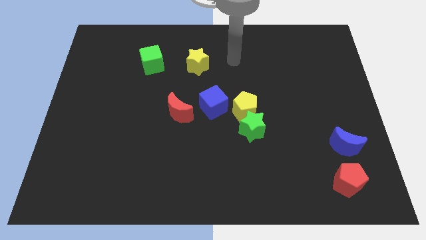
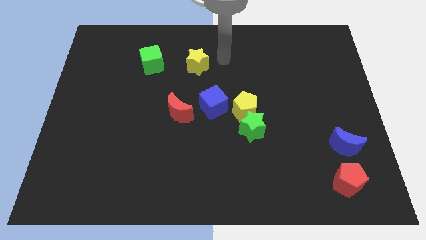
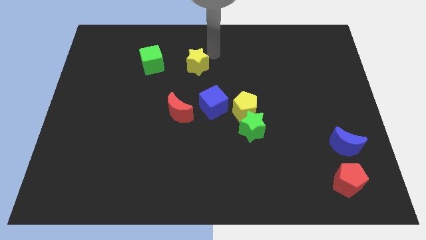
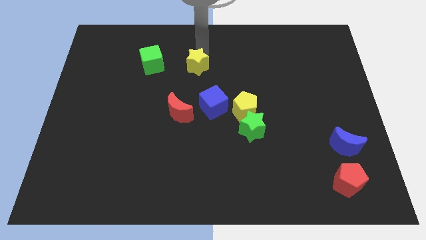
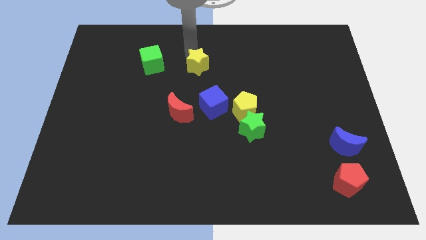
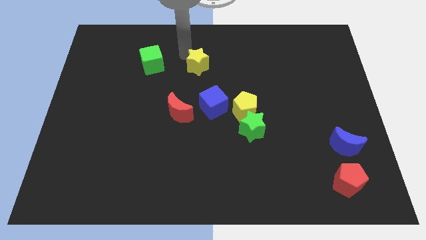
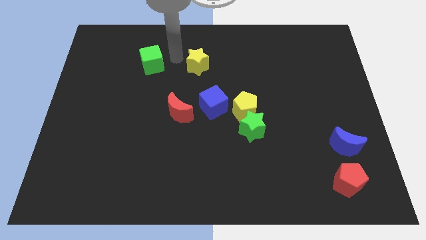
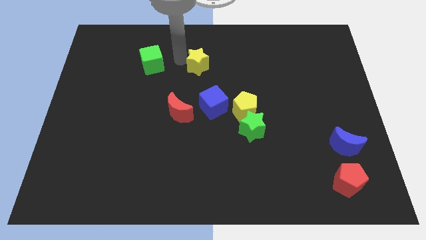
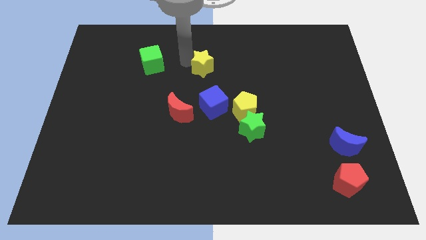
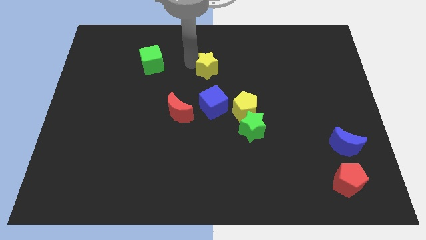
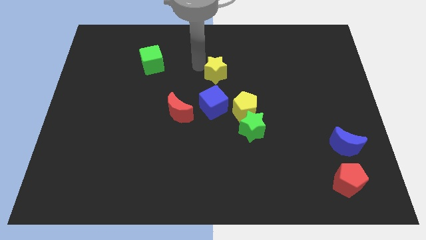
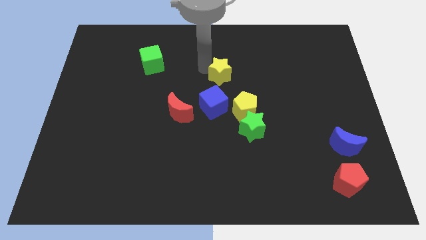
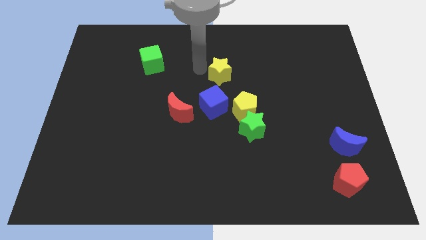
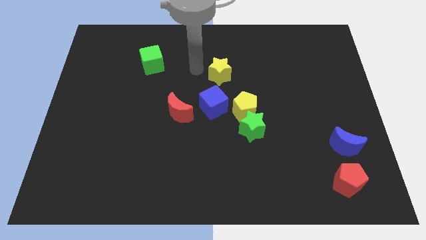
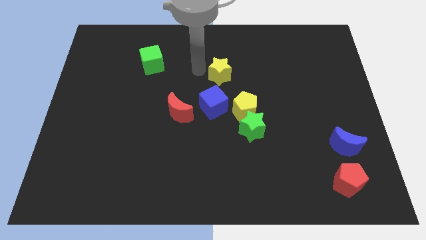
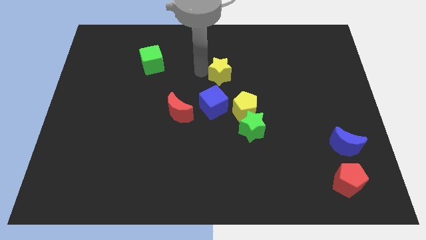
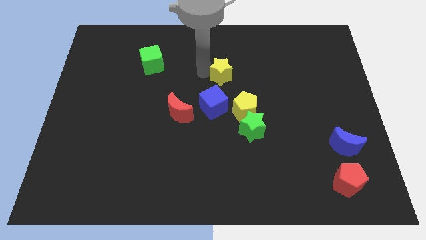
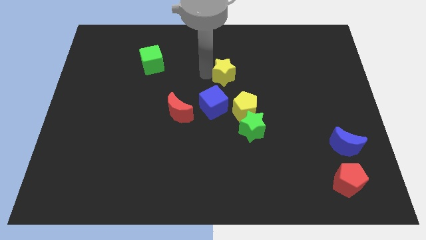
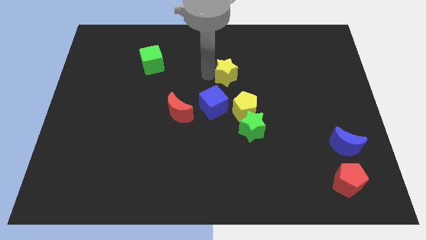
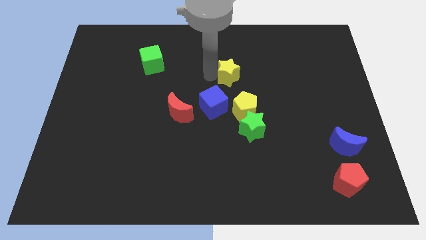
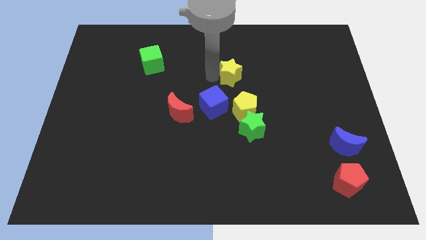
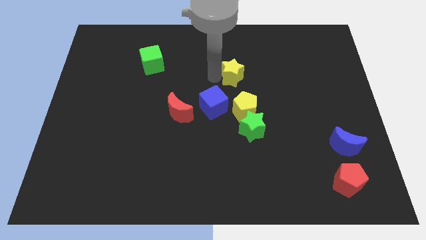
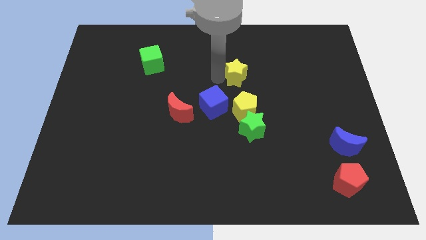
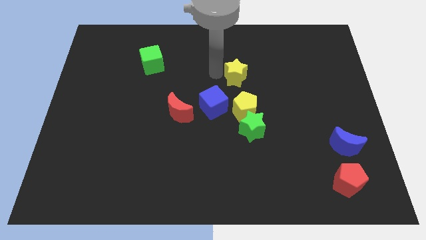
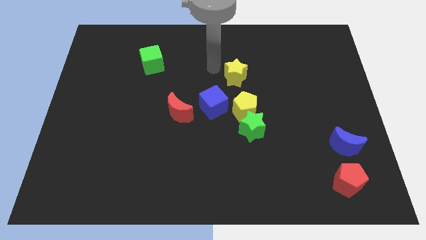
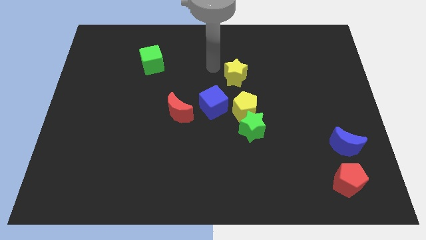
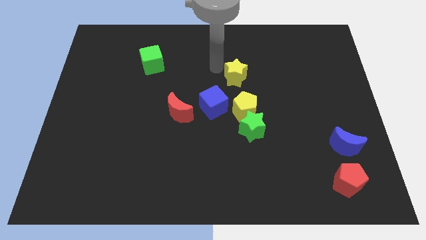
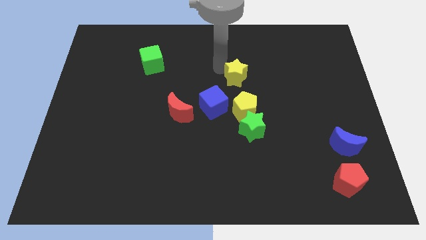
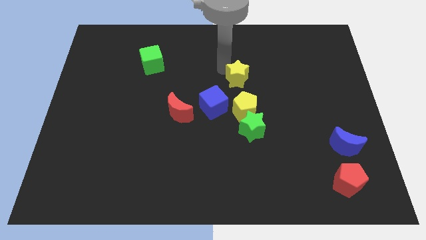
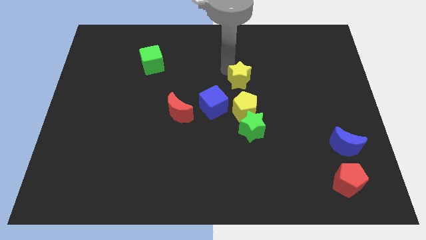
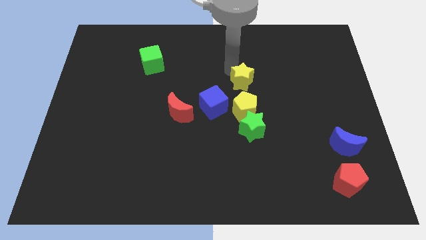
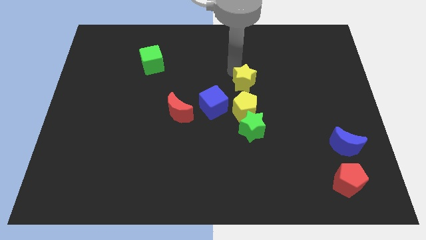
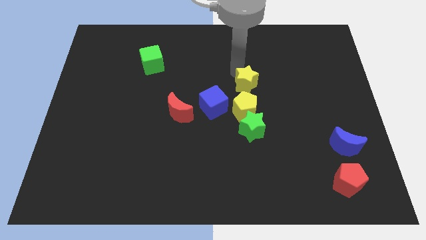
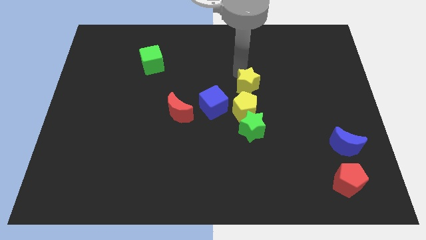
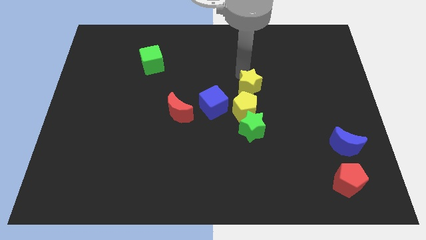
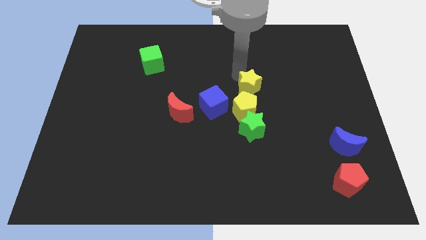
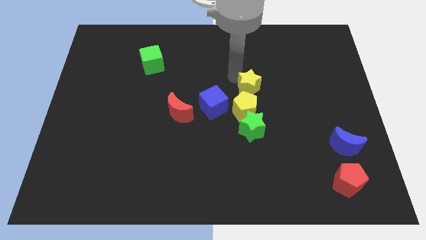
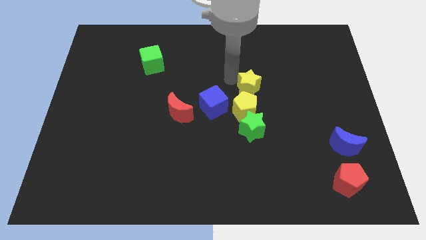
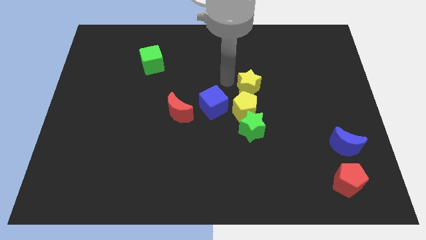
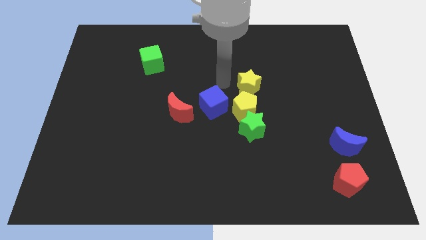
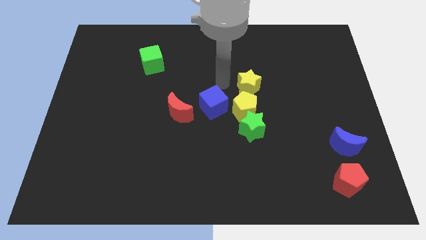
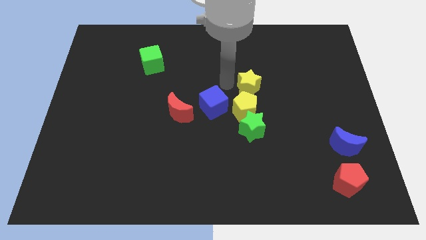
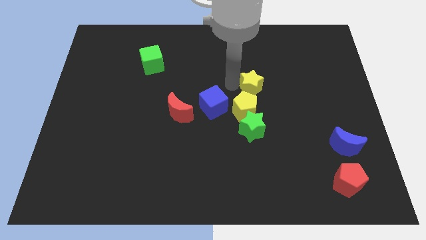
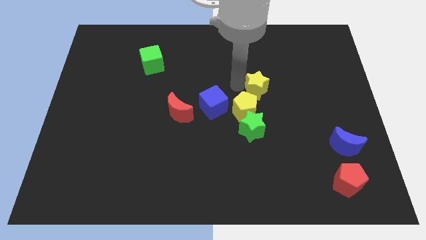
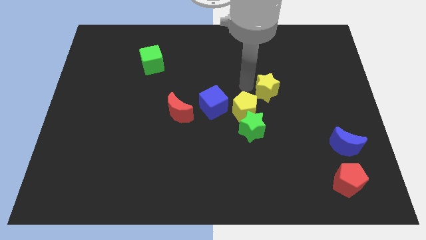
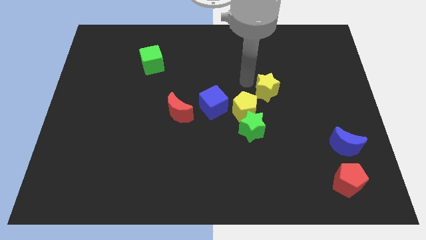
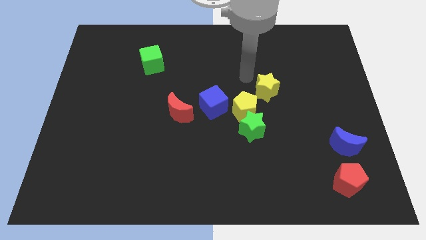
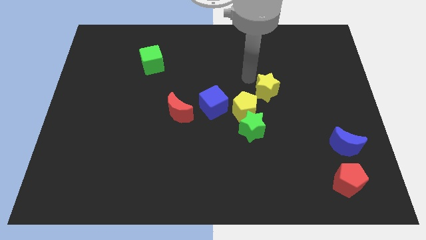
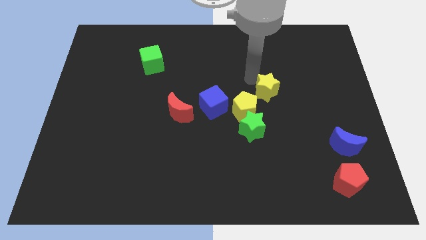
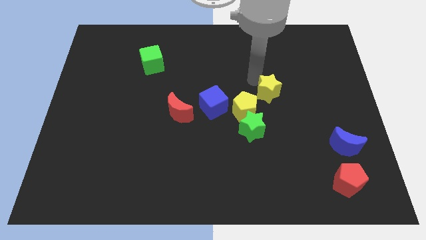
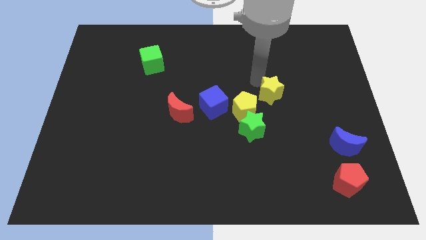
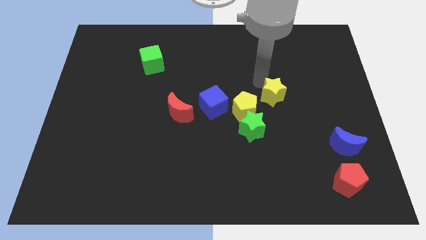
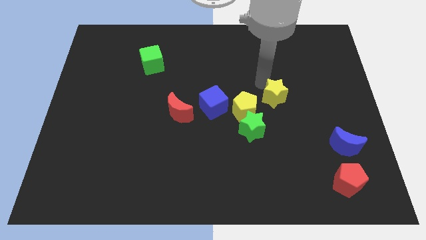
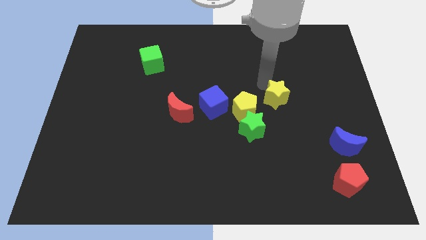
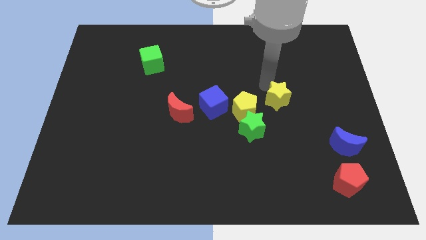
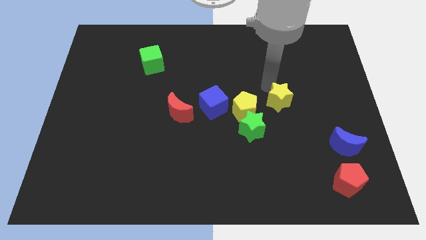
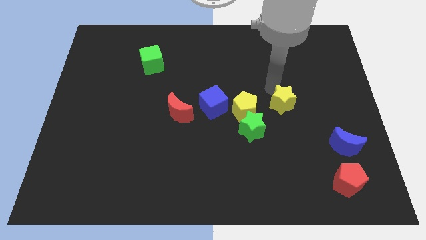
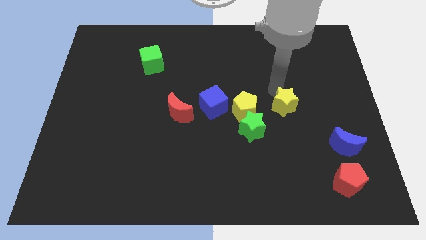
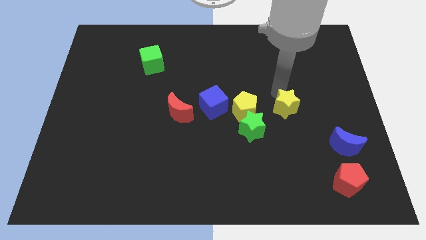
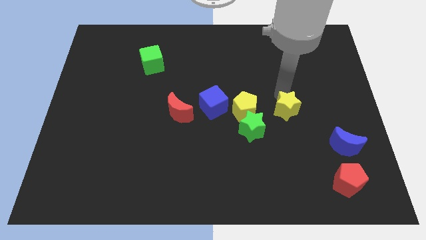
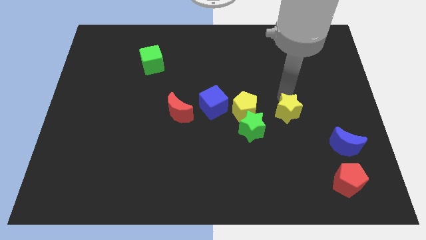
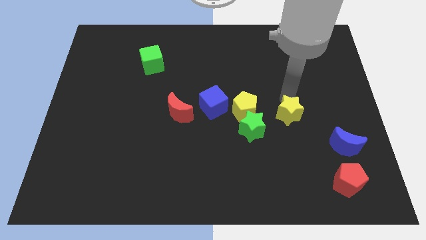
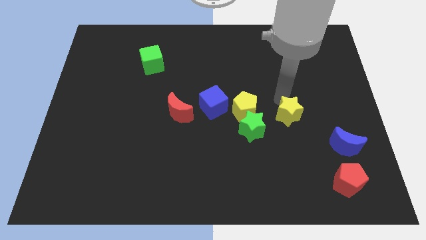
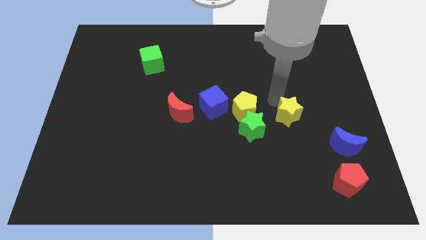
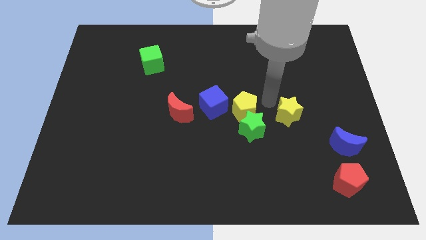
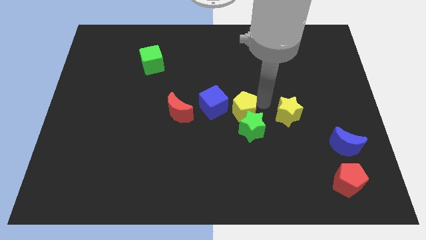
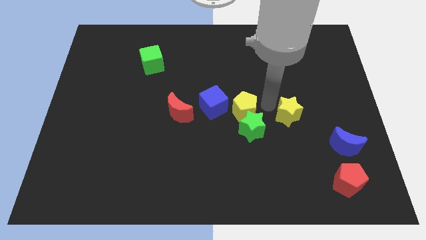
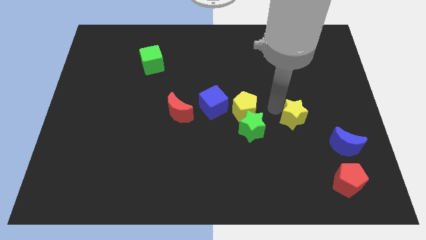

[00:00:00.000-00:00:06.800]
slide the yellow star to the top left of the blue moon
